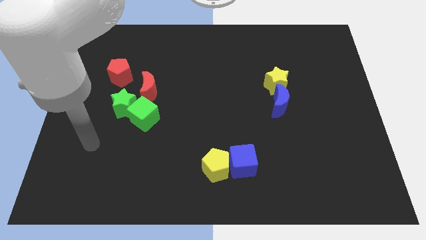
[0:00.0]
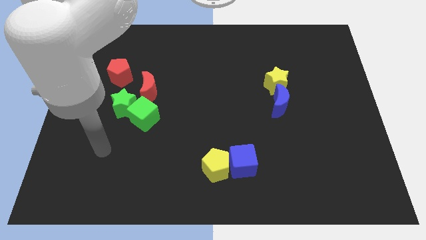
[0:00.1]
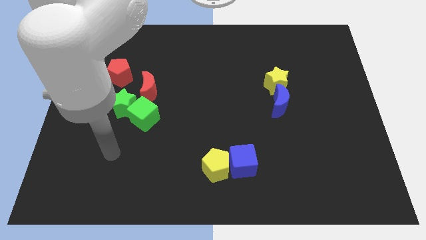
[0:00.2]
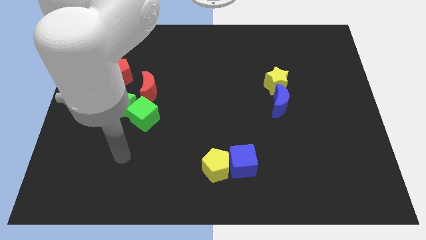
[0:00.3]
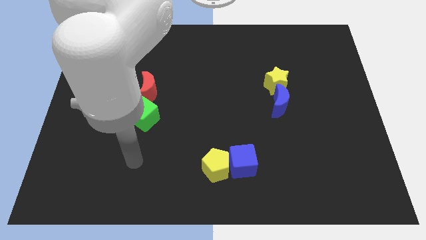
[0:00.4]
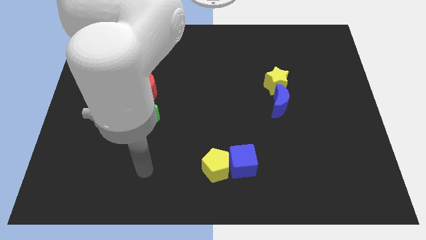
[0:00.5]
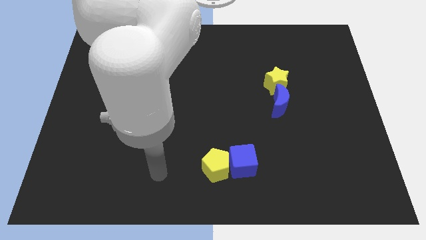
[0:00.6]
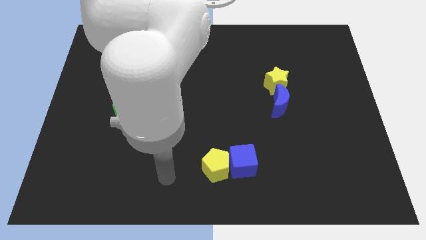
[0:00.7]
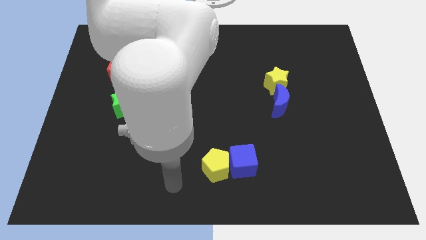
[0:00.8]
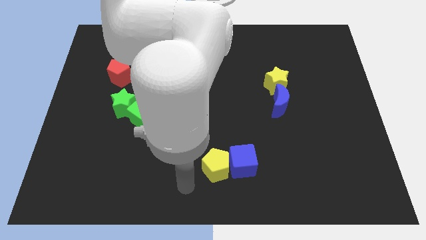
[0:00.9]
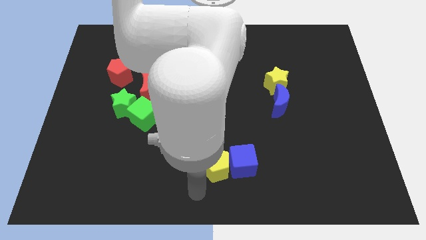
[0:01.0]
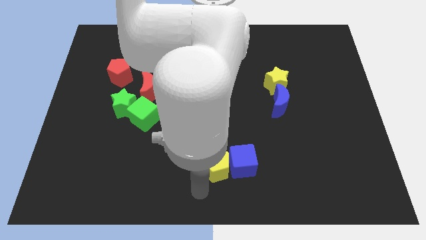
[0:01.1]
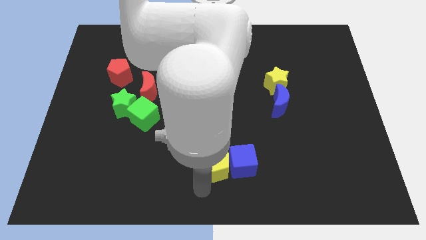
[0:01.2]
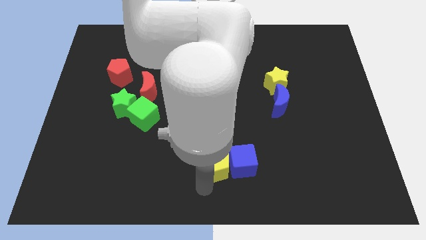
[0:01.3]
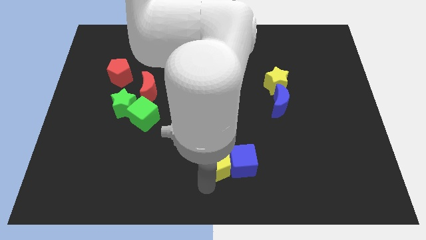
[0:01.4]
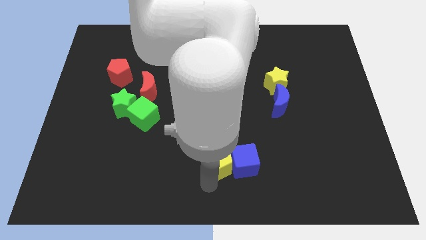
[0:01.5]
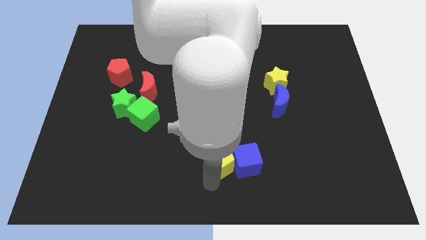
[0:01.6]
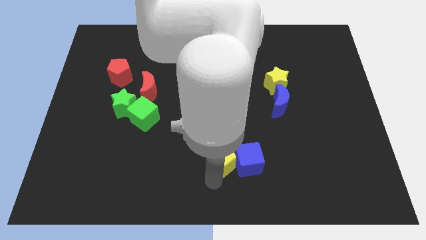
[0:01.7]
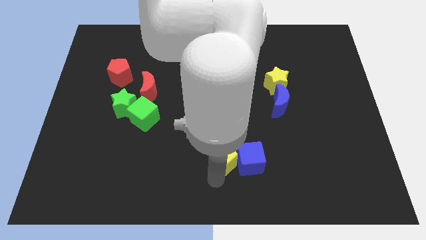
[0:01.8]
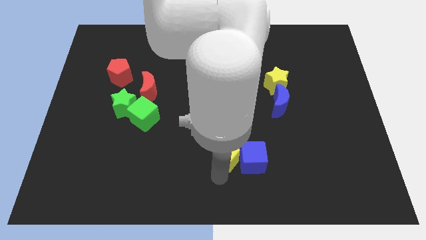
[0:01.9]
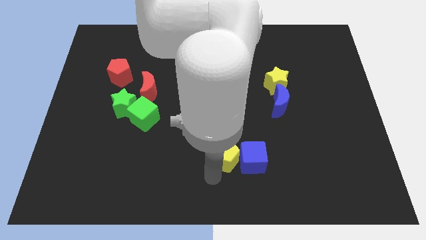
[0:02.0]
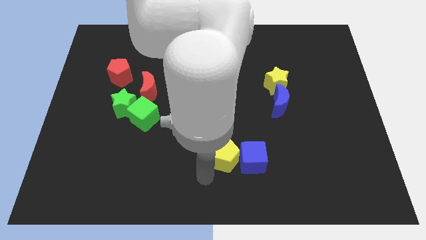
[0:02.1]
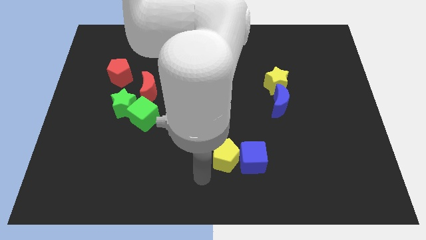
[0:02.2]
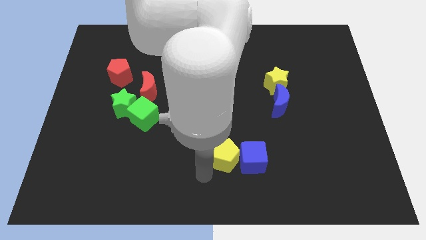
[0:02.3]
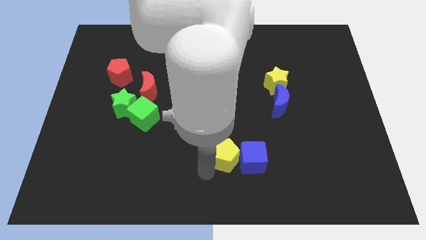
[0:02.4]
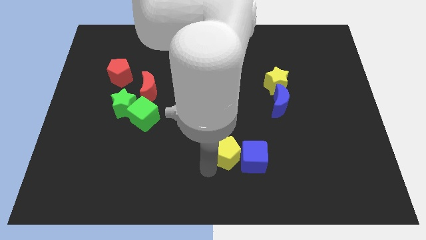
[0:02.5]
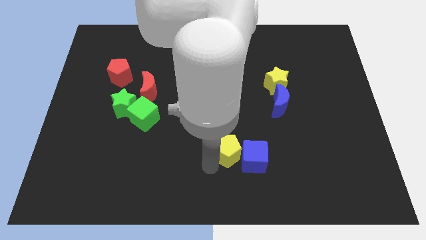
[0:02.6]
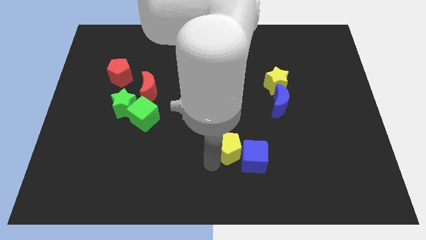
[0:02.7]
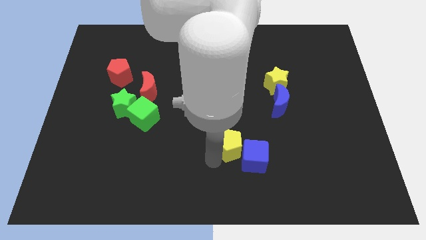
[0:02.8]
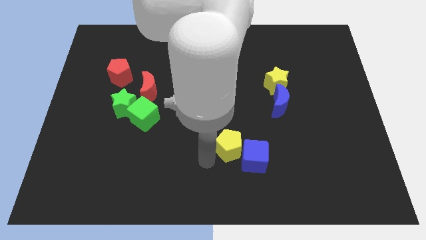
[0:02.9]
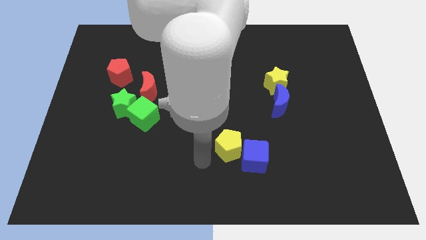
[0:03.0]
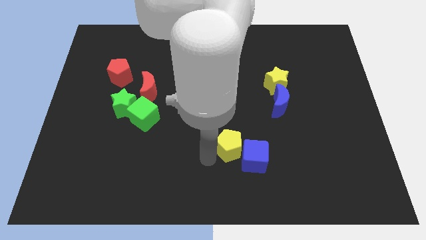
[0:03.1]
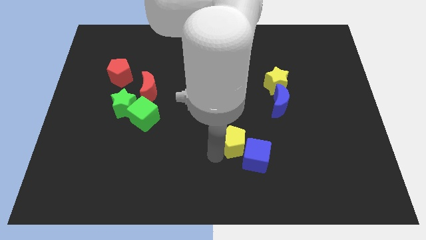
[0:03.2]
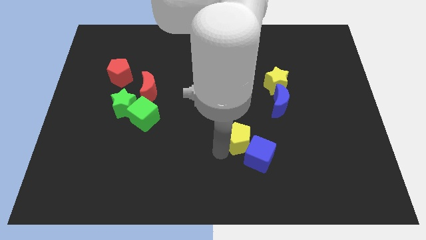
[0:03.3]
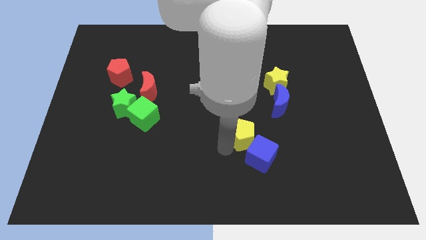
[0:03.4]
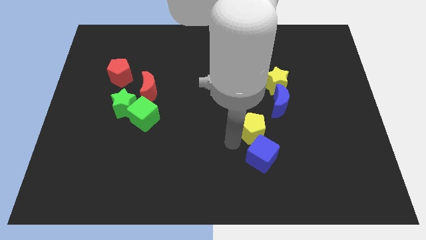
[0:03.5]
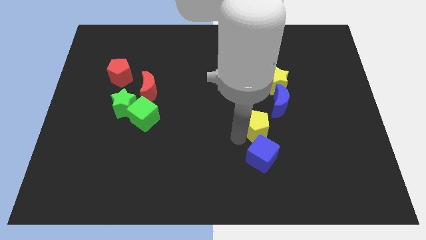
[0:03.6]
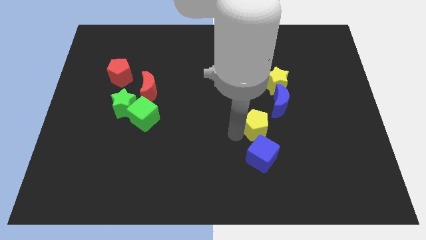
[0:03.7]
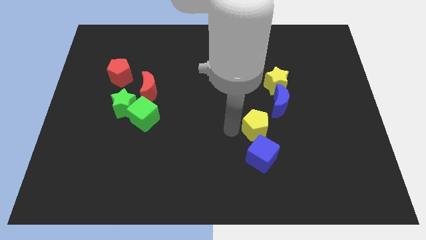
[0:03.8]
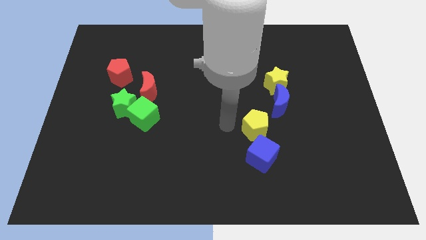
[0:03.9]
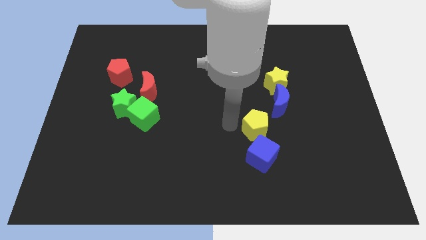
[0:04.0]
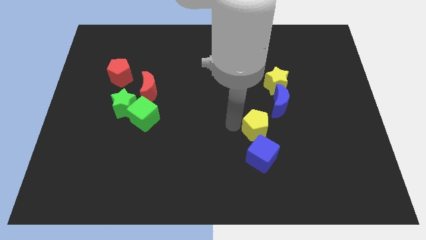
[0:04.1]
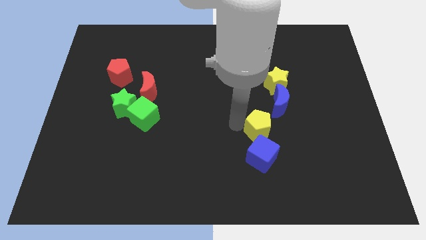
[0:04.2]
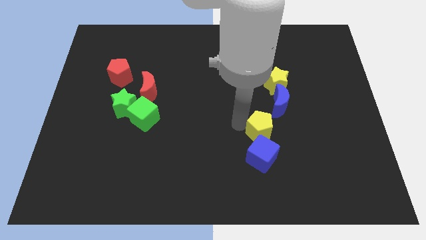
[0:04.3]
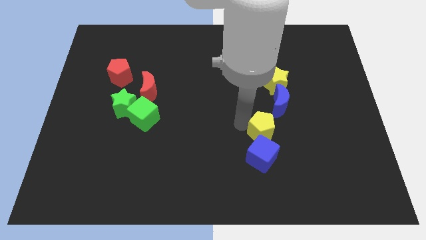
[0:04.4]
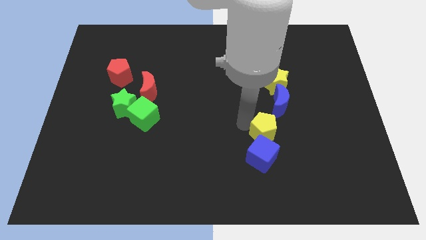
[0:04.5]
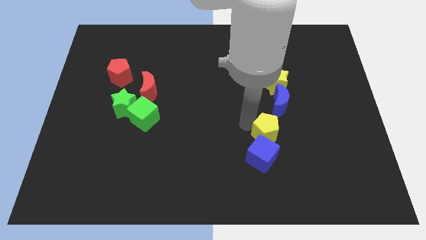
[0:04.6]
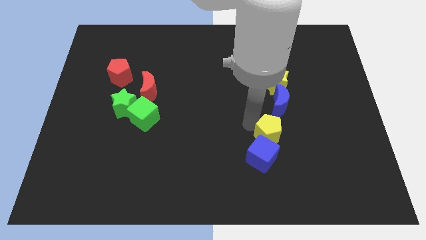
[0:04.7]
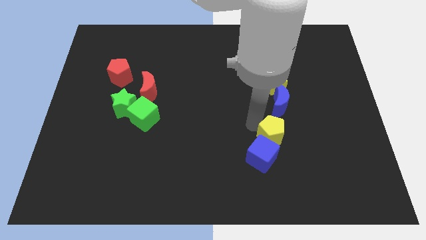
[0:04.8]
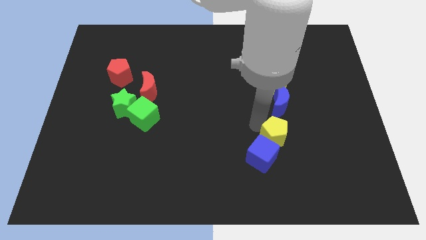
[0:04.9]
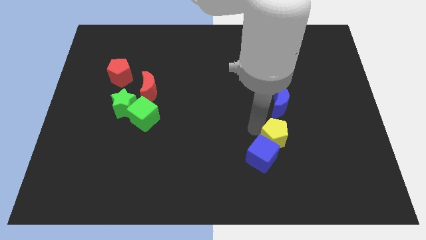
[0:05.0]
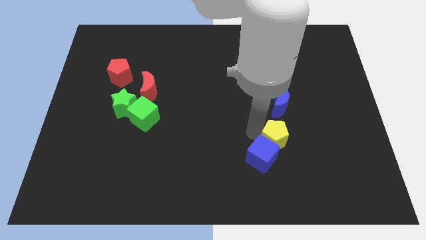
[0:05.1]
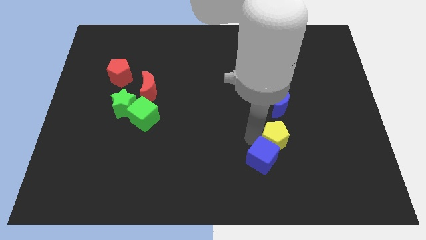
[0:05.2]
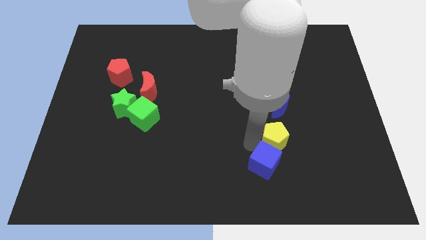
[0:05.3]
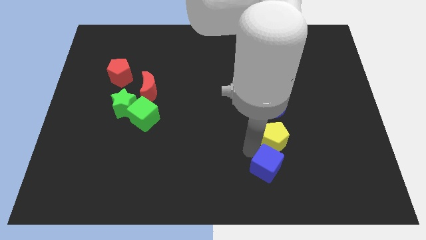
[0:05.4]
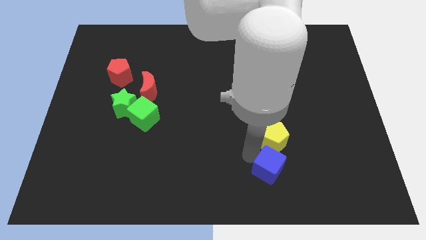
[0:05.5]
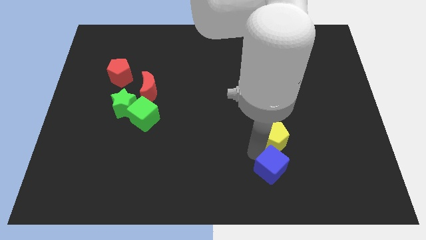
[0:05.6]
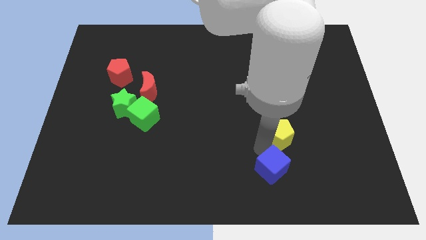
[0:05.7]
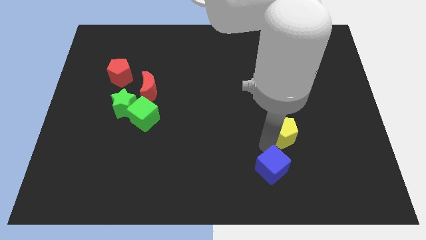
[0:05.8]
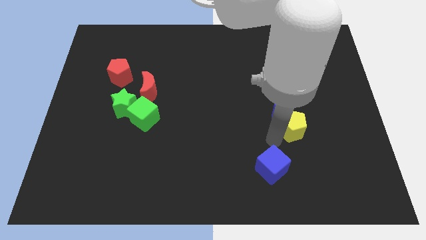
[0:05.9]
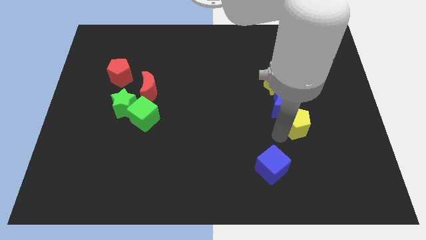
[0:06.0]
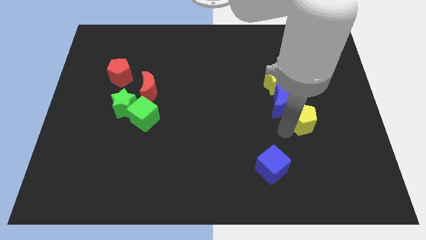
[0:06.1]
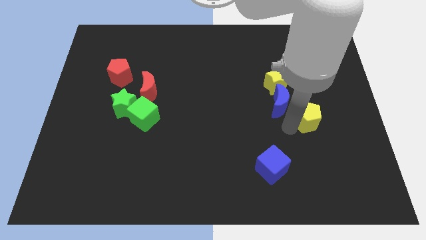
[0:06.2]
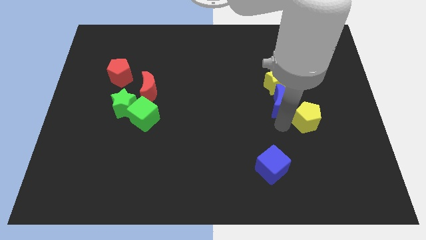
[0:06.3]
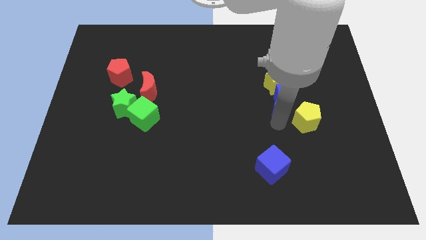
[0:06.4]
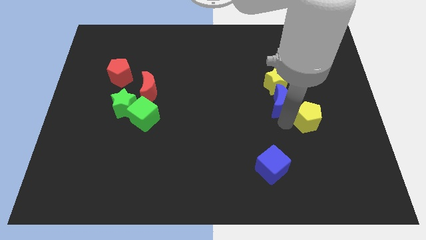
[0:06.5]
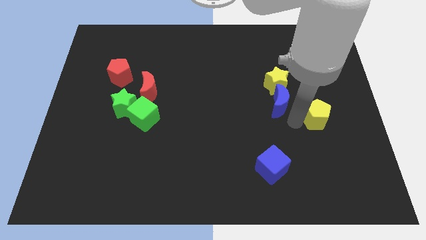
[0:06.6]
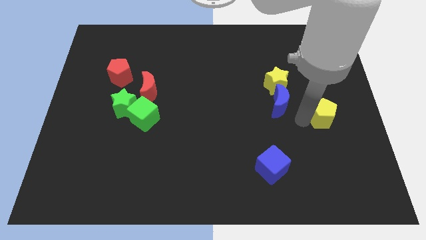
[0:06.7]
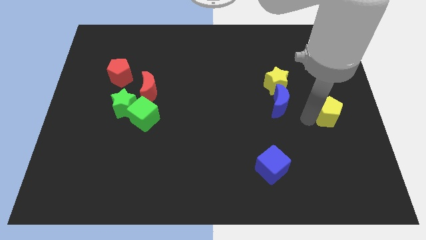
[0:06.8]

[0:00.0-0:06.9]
put the yellow pentagon to the center right

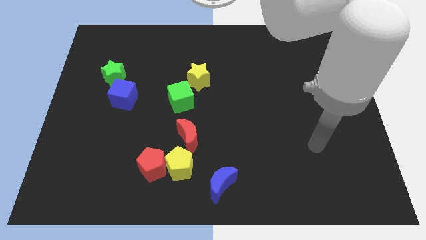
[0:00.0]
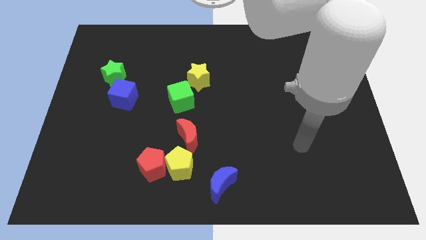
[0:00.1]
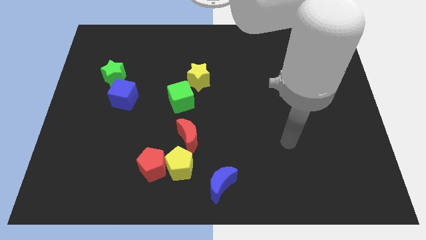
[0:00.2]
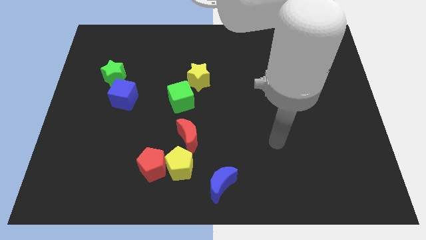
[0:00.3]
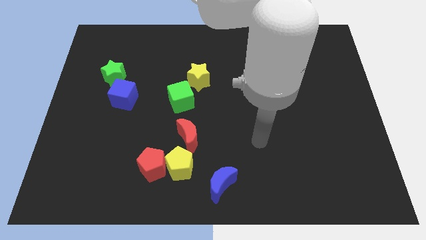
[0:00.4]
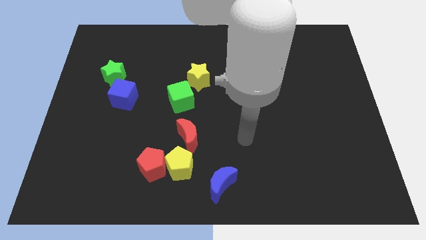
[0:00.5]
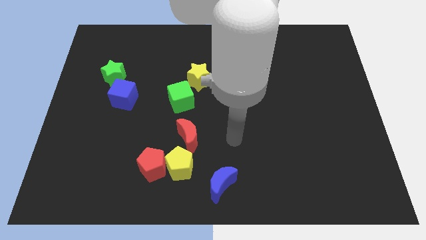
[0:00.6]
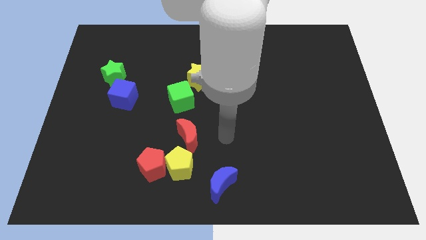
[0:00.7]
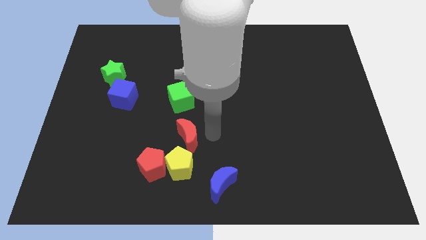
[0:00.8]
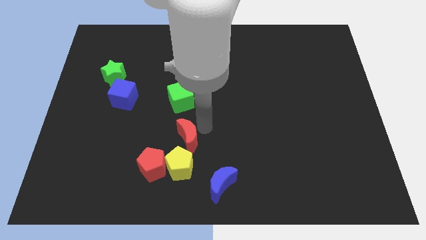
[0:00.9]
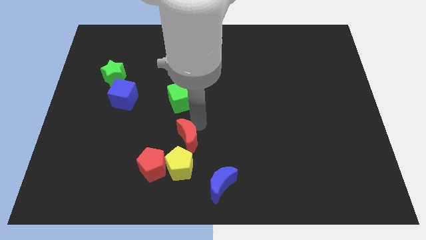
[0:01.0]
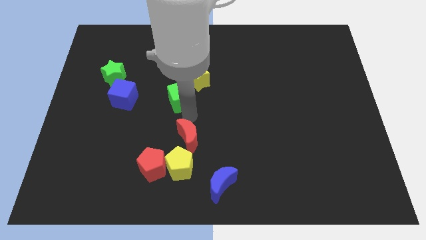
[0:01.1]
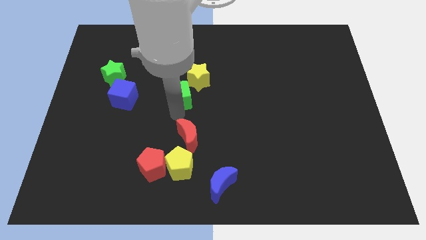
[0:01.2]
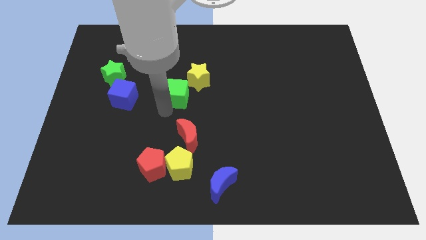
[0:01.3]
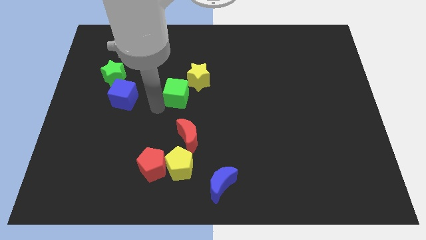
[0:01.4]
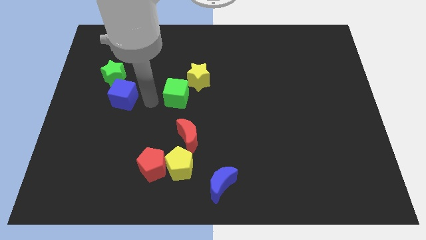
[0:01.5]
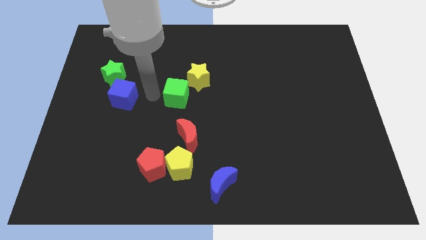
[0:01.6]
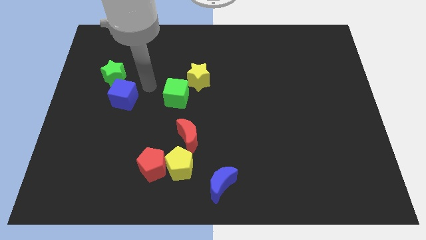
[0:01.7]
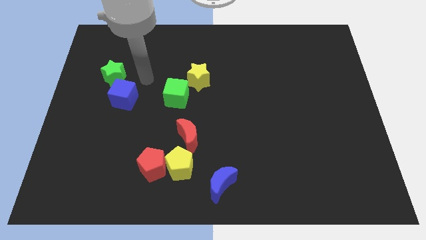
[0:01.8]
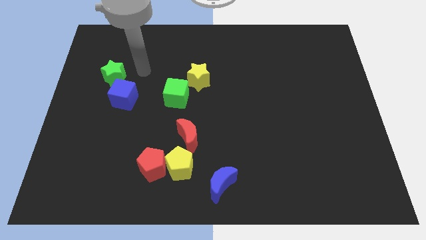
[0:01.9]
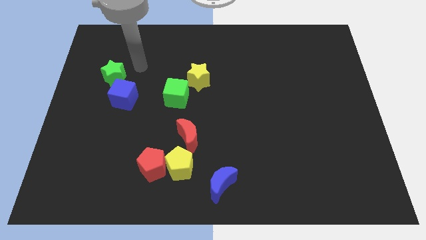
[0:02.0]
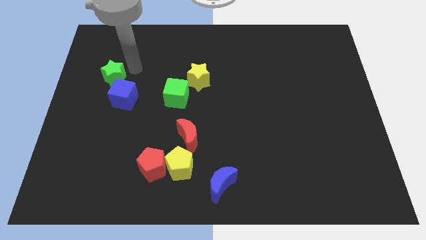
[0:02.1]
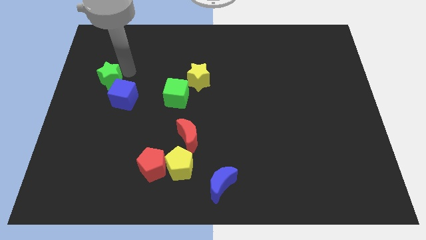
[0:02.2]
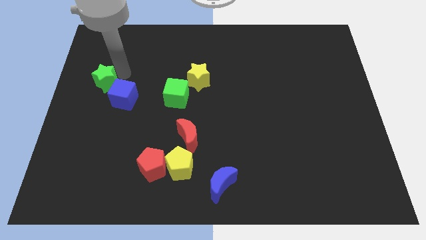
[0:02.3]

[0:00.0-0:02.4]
move the green star to the center left
